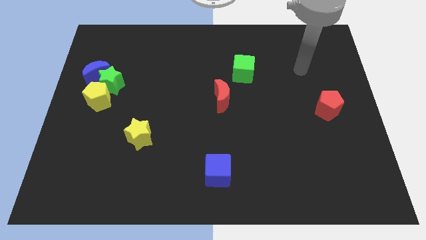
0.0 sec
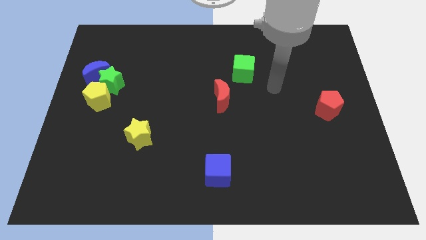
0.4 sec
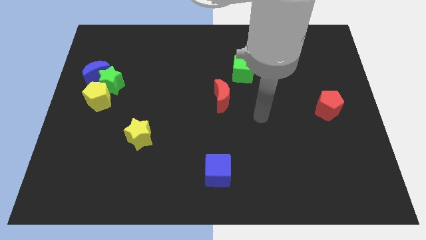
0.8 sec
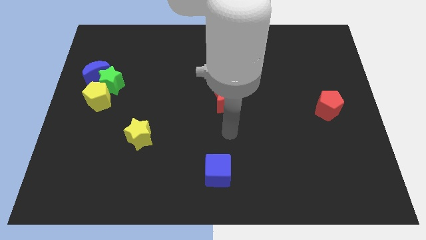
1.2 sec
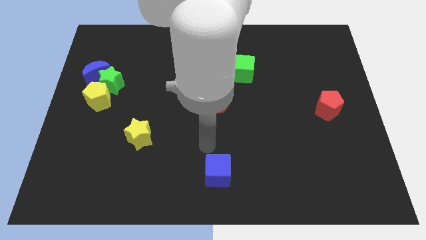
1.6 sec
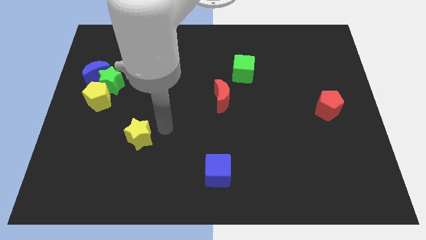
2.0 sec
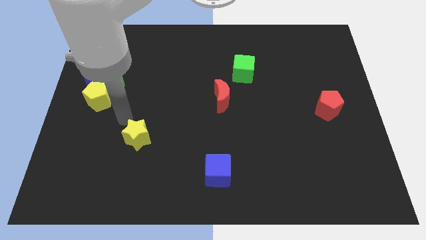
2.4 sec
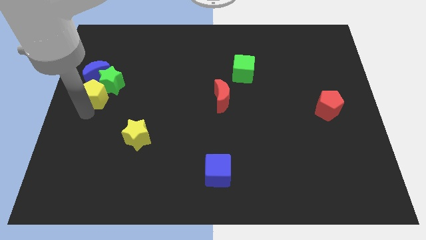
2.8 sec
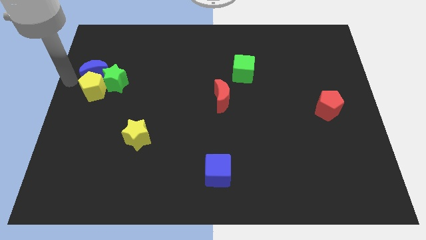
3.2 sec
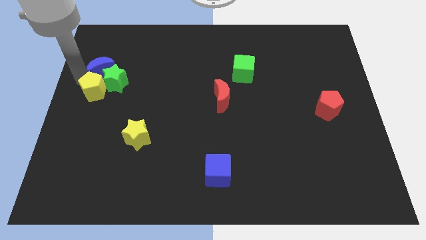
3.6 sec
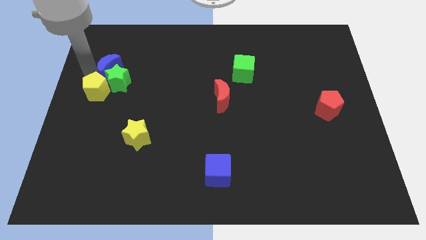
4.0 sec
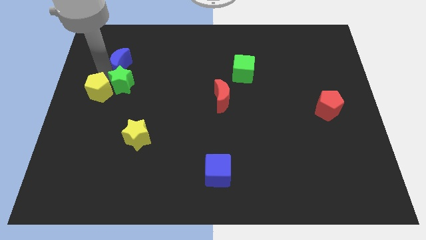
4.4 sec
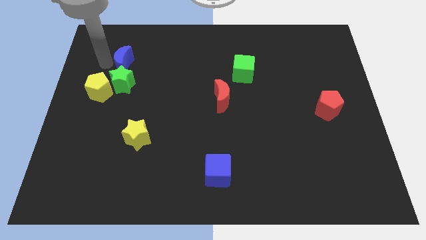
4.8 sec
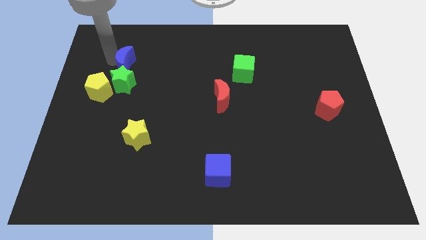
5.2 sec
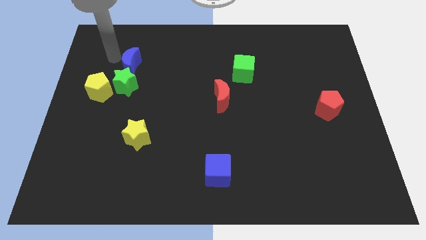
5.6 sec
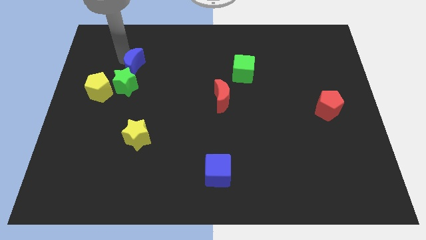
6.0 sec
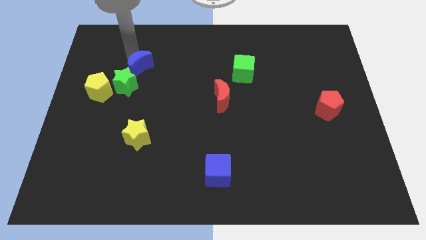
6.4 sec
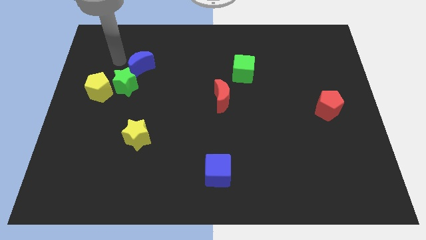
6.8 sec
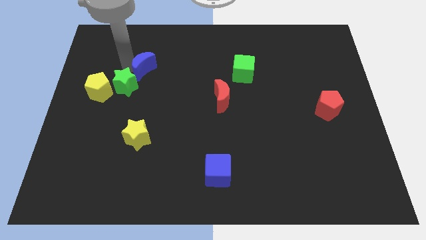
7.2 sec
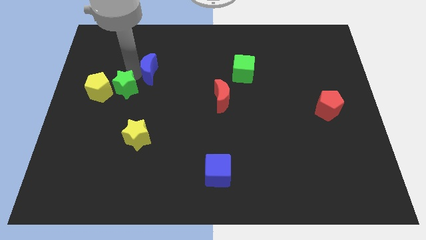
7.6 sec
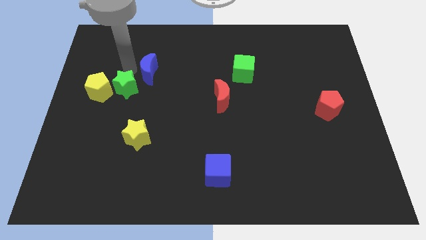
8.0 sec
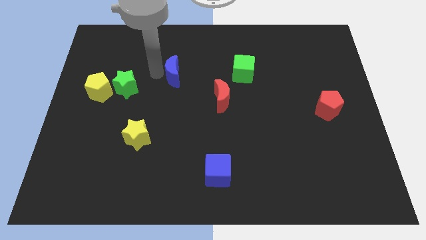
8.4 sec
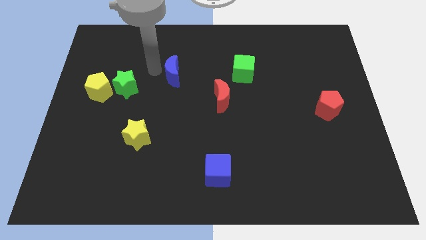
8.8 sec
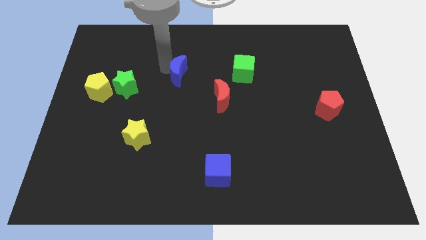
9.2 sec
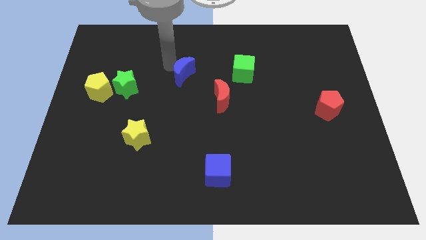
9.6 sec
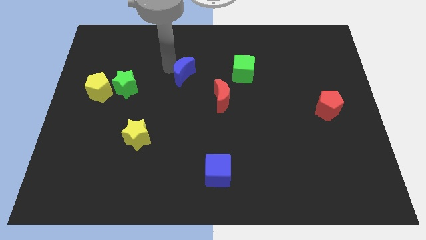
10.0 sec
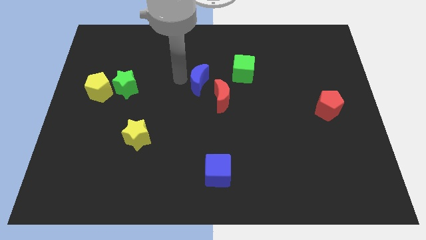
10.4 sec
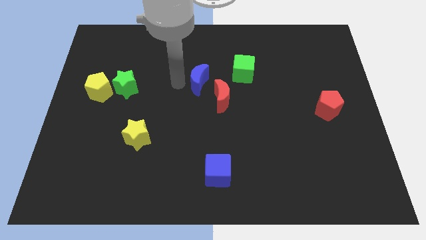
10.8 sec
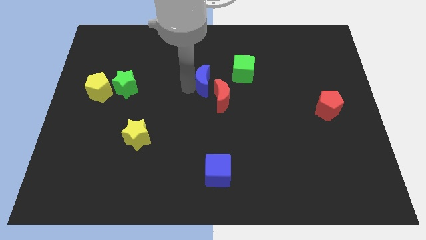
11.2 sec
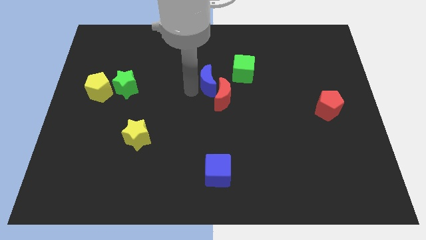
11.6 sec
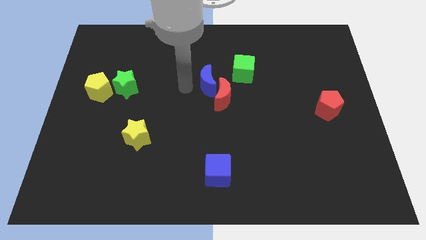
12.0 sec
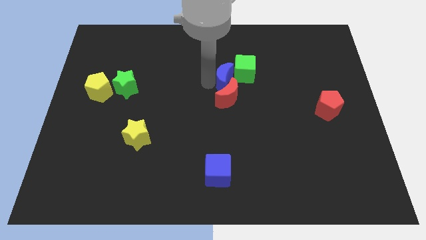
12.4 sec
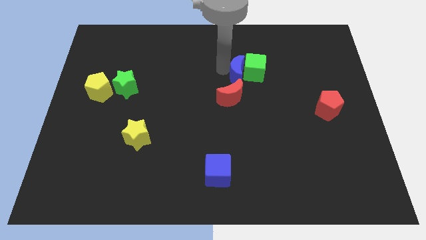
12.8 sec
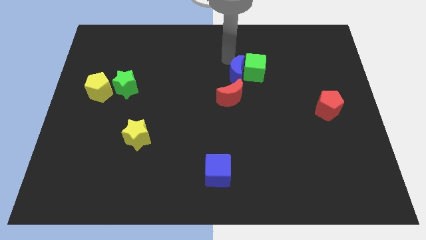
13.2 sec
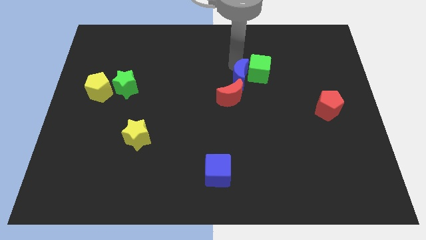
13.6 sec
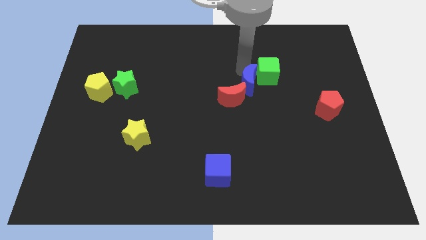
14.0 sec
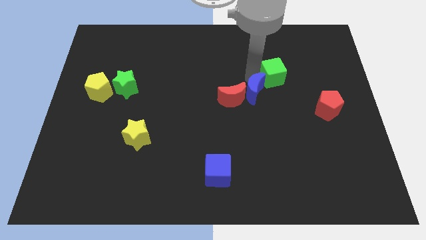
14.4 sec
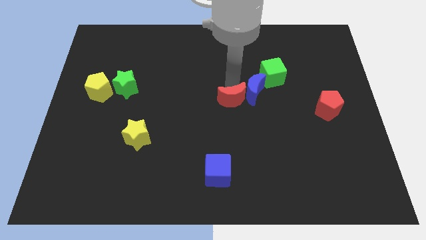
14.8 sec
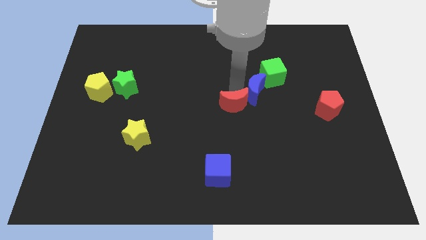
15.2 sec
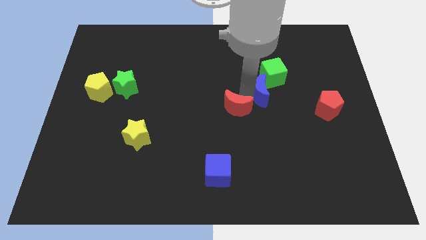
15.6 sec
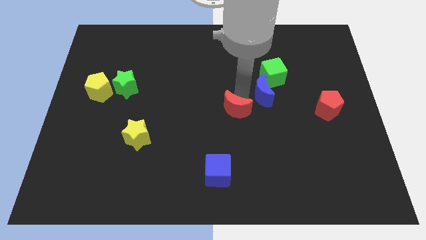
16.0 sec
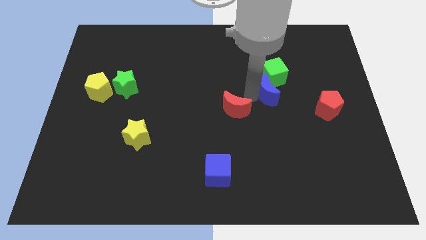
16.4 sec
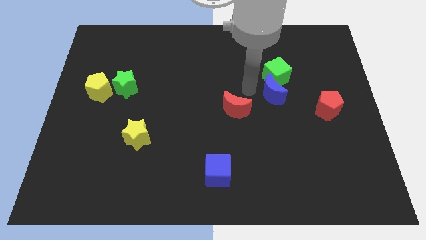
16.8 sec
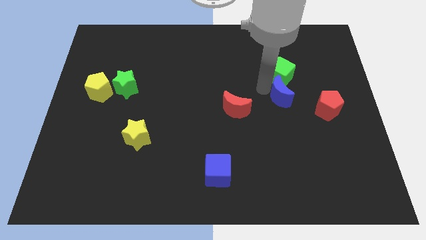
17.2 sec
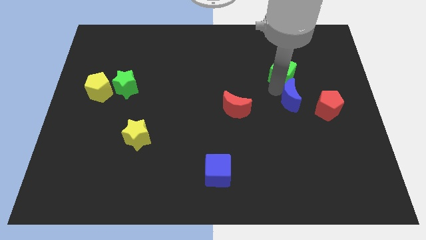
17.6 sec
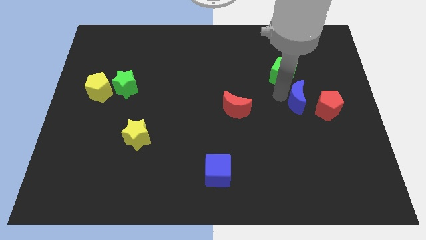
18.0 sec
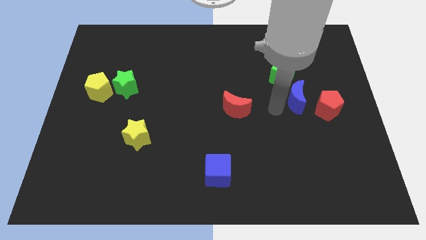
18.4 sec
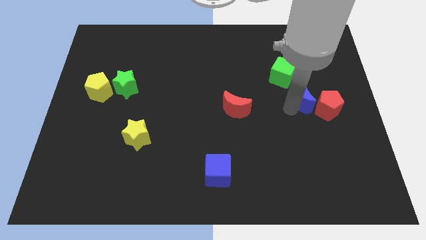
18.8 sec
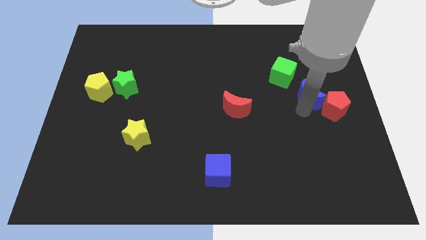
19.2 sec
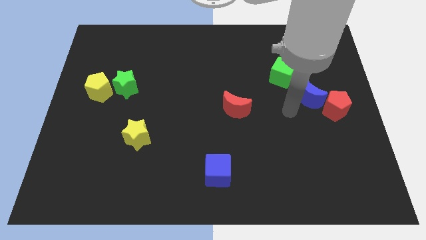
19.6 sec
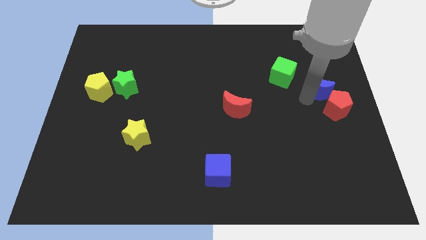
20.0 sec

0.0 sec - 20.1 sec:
move the blue moon to the right side
